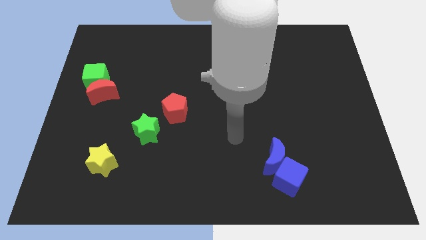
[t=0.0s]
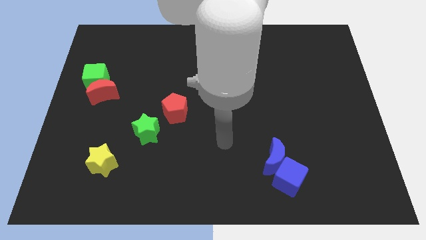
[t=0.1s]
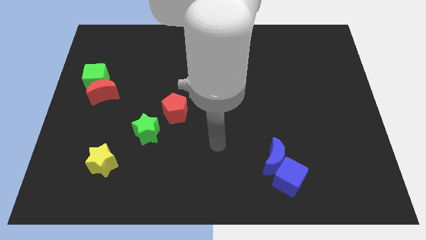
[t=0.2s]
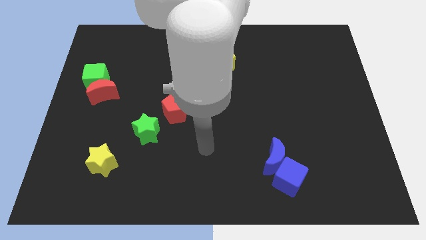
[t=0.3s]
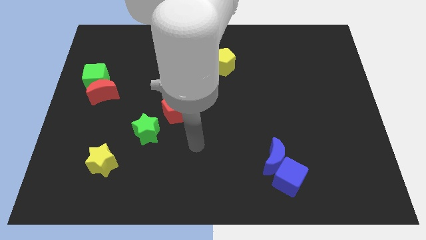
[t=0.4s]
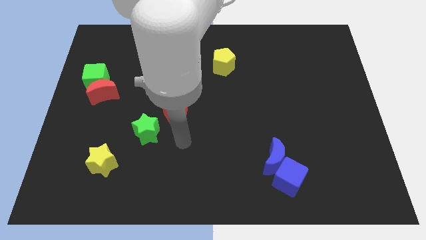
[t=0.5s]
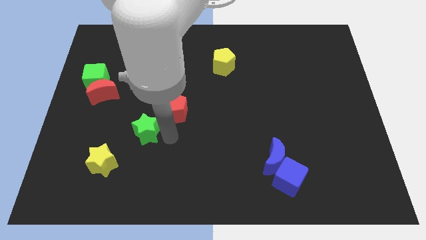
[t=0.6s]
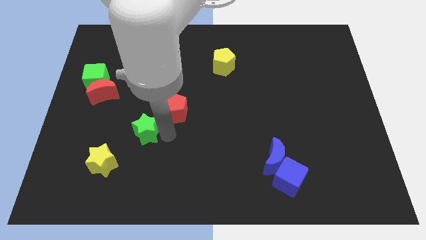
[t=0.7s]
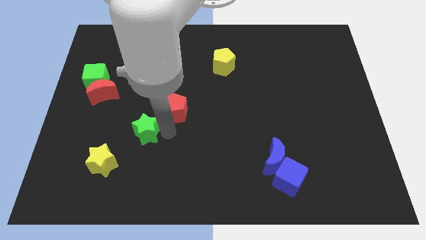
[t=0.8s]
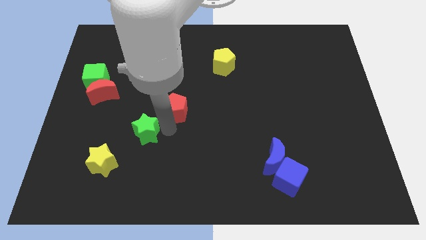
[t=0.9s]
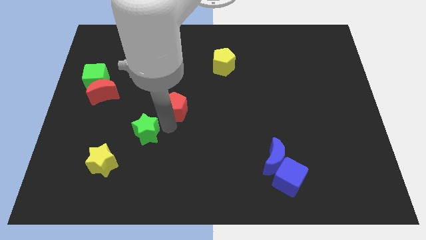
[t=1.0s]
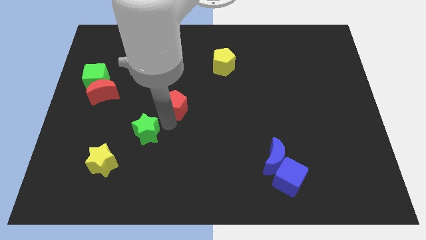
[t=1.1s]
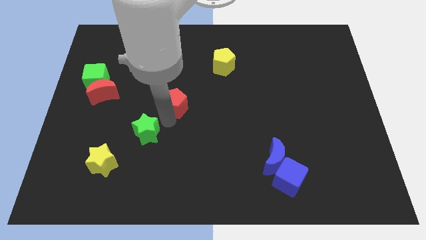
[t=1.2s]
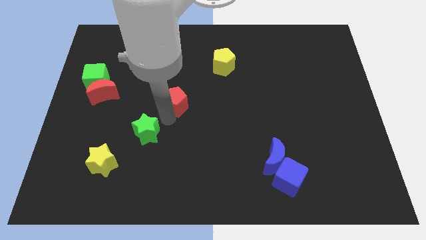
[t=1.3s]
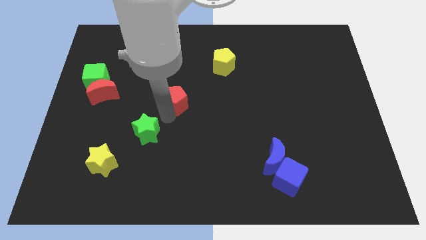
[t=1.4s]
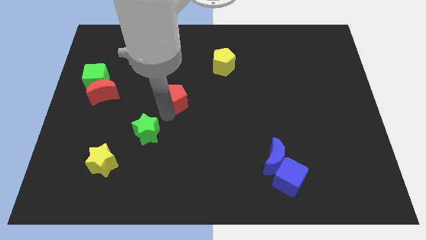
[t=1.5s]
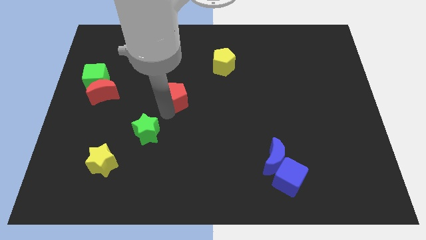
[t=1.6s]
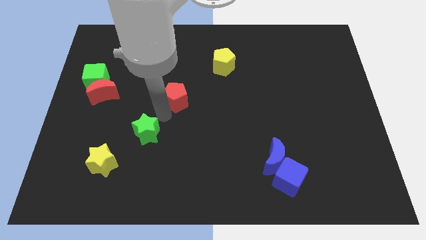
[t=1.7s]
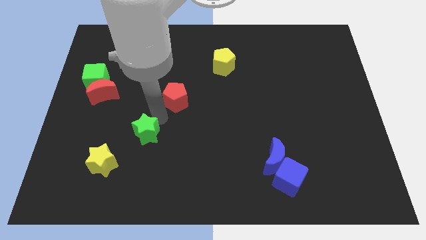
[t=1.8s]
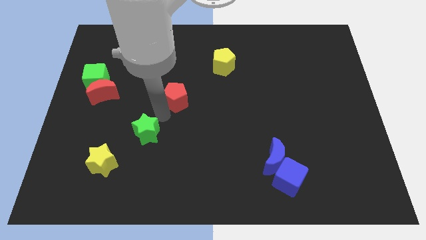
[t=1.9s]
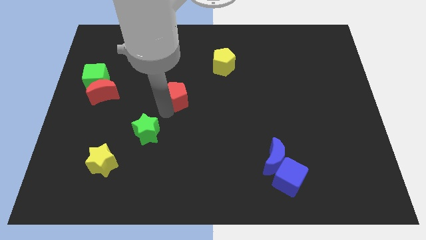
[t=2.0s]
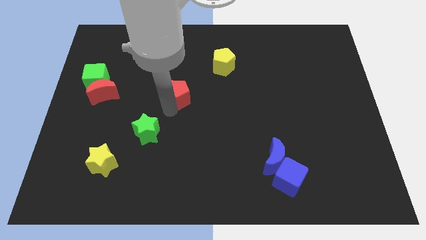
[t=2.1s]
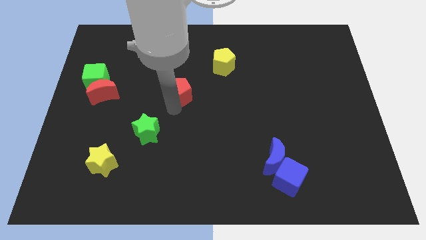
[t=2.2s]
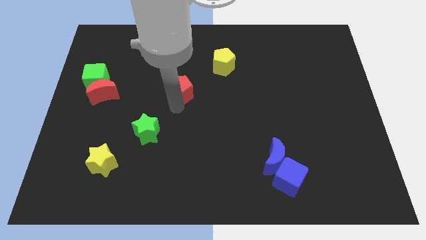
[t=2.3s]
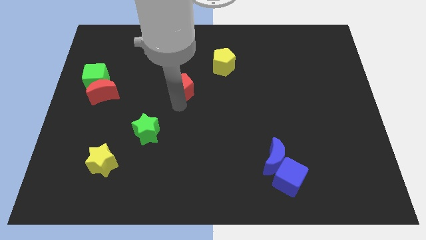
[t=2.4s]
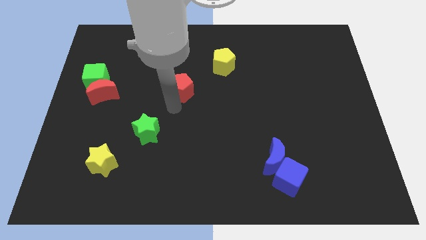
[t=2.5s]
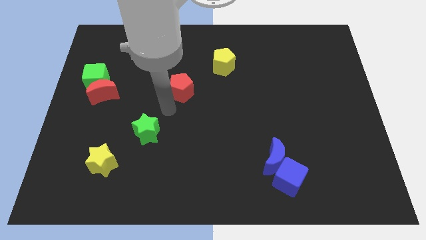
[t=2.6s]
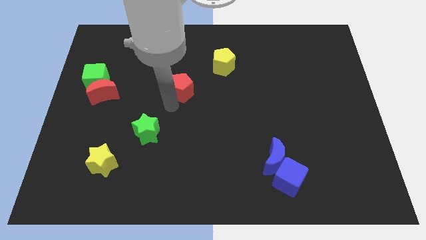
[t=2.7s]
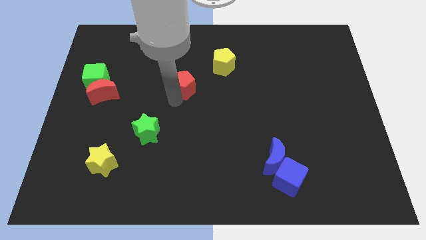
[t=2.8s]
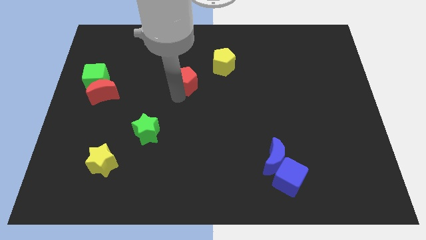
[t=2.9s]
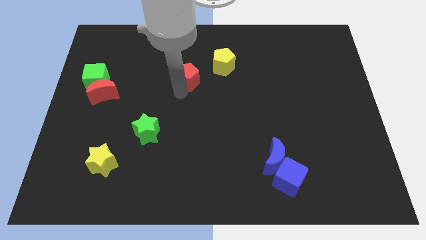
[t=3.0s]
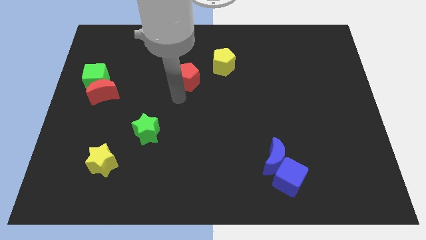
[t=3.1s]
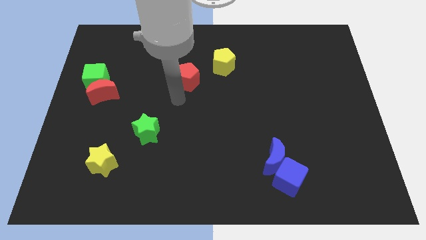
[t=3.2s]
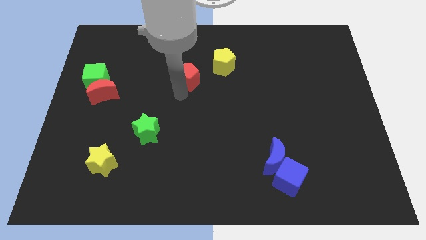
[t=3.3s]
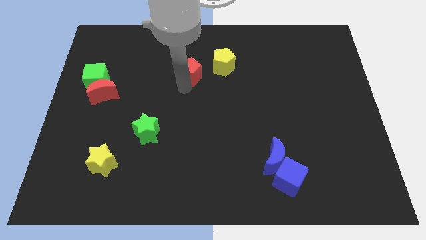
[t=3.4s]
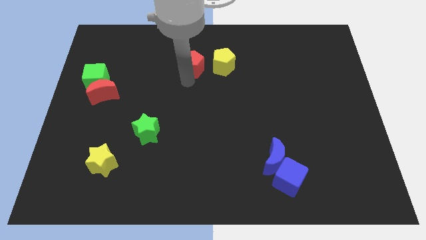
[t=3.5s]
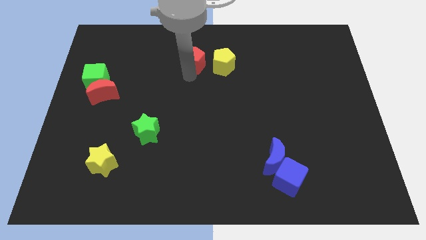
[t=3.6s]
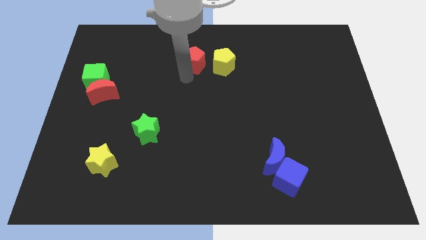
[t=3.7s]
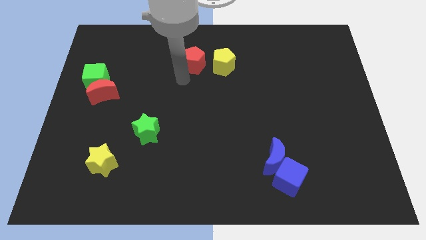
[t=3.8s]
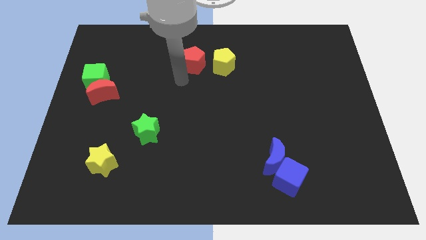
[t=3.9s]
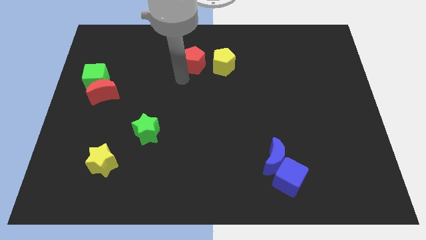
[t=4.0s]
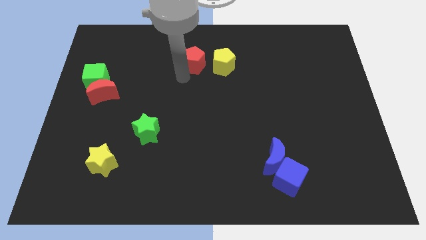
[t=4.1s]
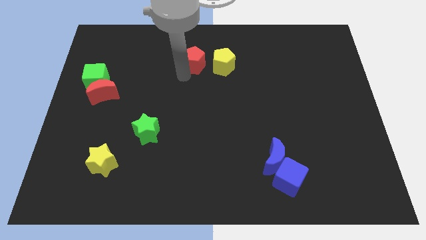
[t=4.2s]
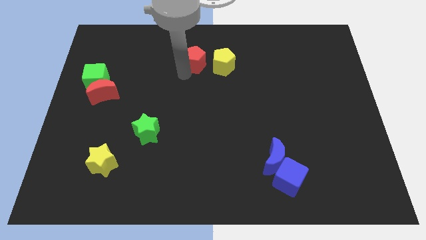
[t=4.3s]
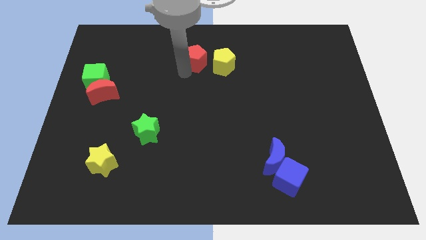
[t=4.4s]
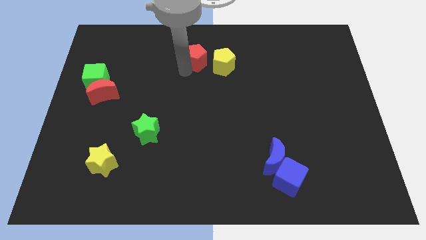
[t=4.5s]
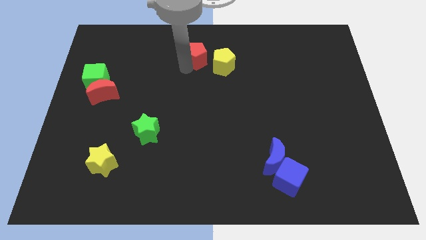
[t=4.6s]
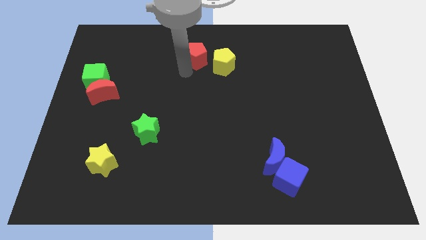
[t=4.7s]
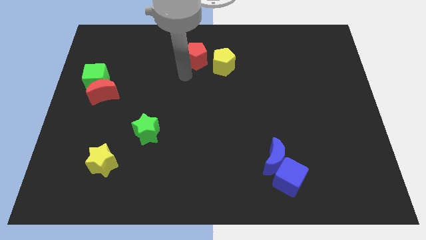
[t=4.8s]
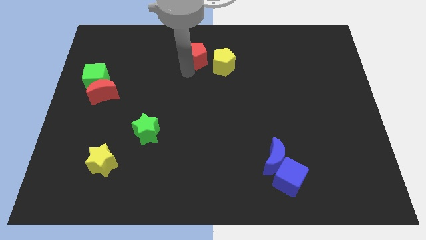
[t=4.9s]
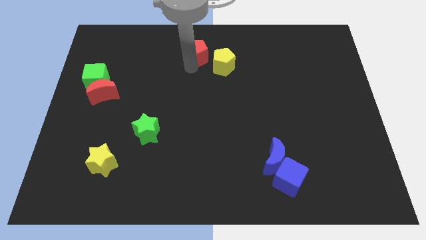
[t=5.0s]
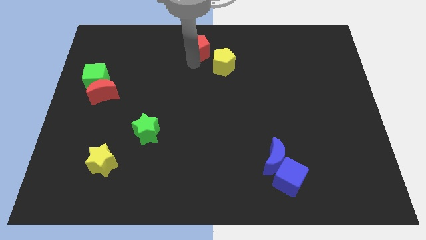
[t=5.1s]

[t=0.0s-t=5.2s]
move the red pentagon to the towards your base

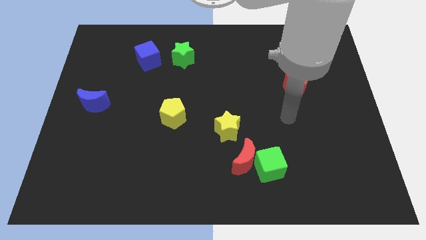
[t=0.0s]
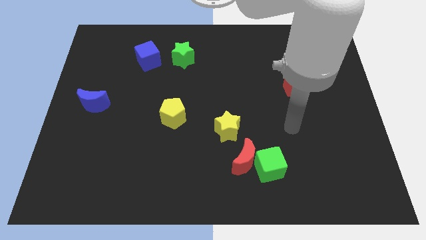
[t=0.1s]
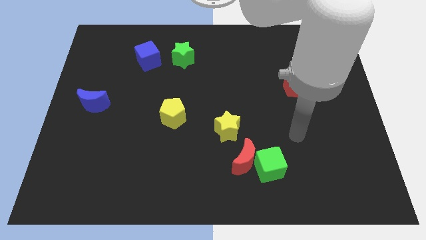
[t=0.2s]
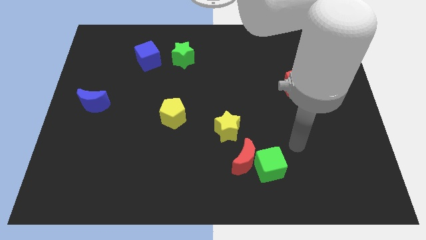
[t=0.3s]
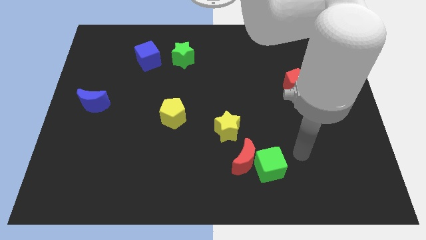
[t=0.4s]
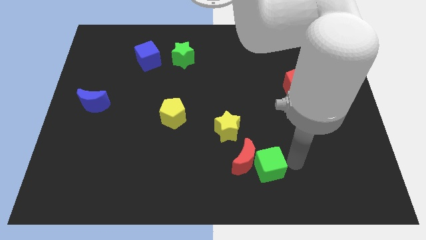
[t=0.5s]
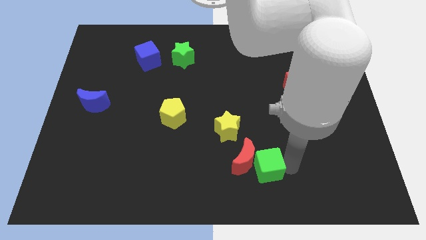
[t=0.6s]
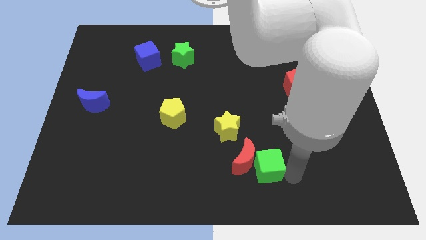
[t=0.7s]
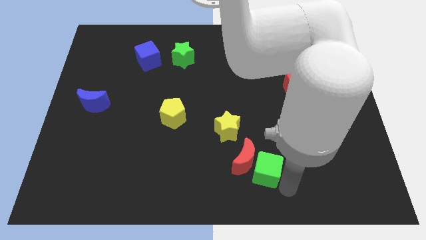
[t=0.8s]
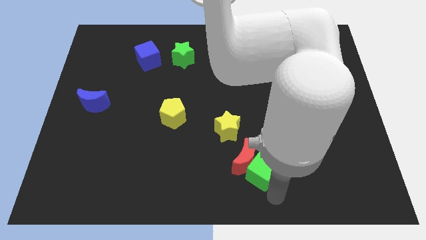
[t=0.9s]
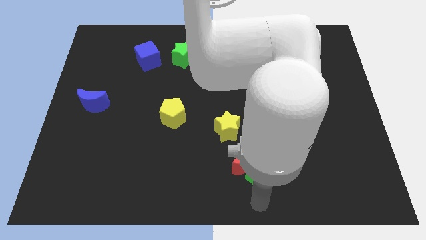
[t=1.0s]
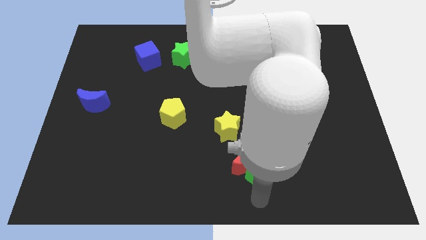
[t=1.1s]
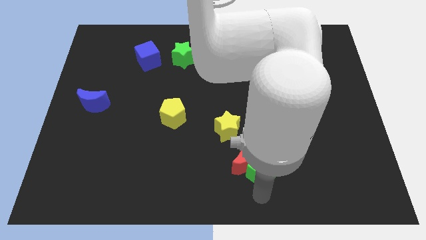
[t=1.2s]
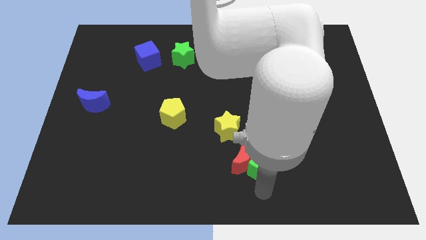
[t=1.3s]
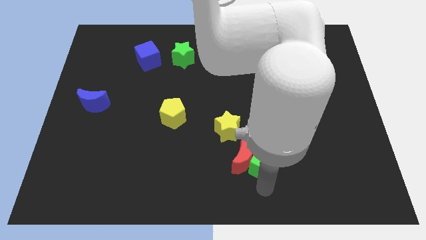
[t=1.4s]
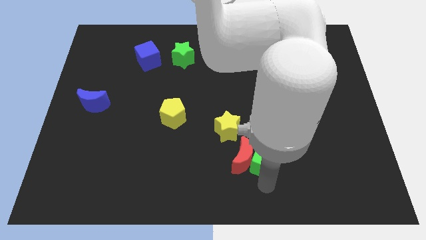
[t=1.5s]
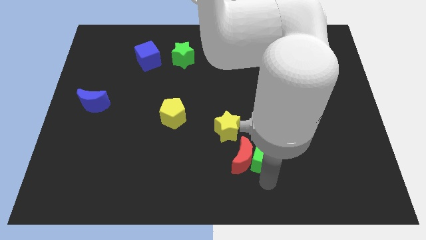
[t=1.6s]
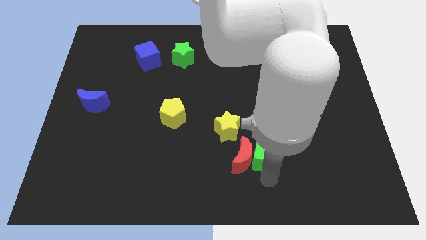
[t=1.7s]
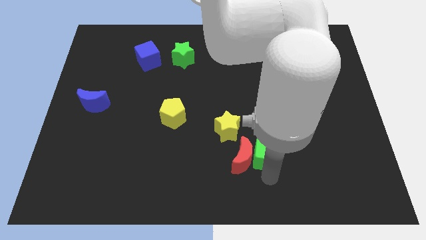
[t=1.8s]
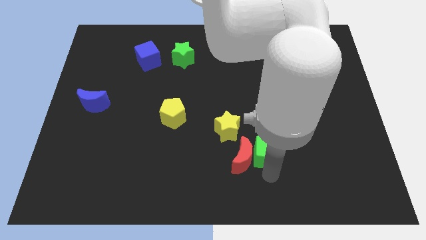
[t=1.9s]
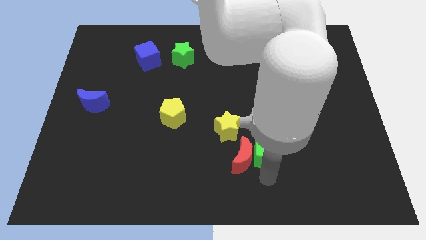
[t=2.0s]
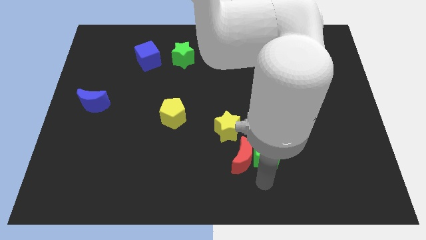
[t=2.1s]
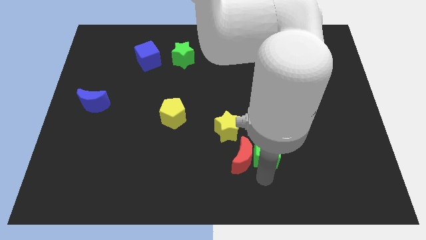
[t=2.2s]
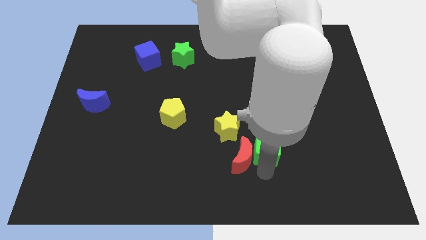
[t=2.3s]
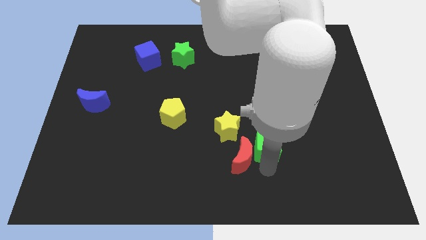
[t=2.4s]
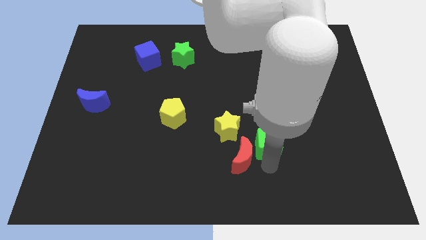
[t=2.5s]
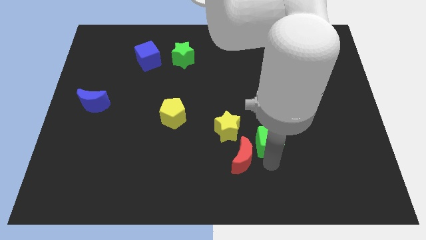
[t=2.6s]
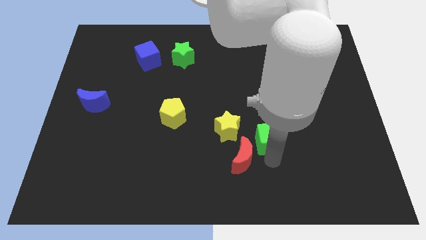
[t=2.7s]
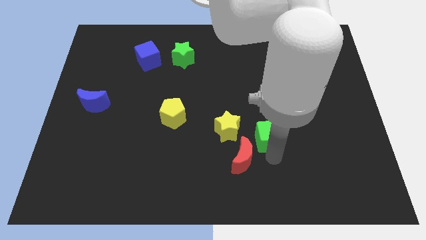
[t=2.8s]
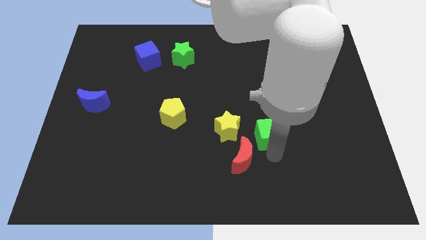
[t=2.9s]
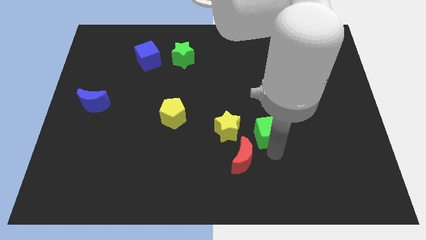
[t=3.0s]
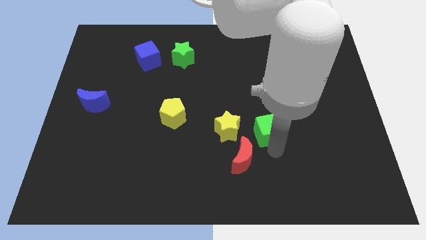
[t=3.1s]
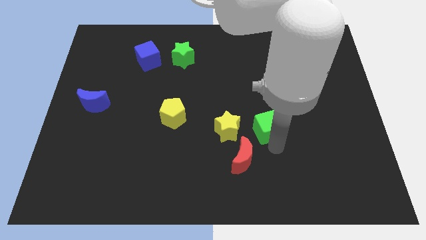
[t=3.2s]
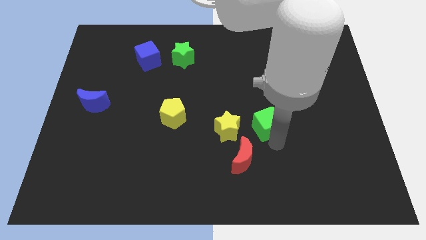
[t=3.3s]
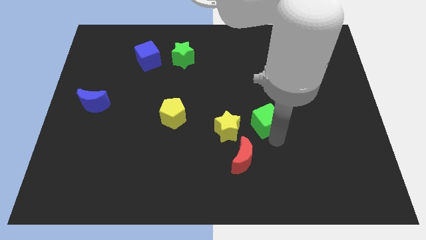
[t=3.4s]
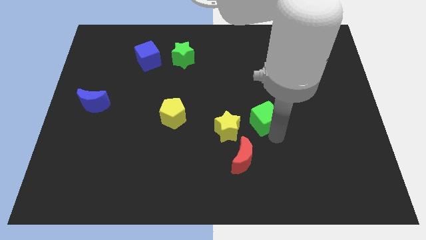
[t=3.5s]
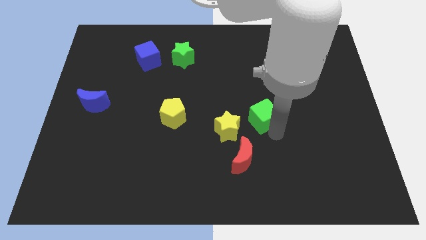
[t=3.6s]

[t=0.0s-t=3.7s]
push the green cube to the middle of the board
